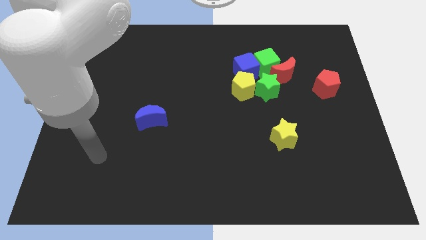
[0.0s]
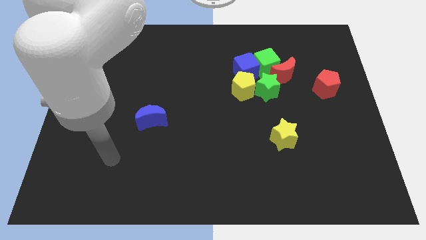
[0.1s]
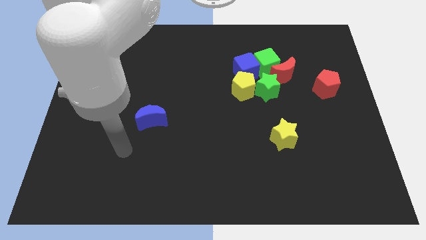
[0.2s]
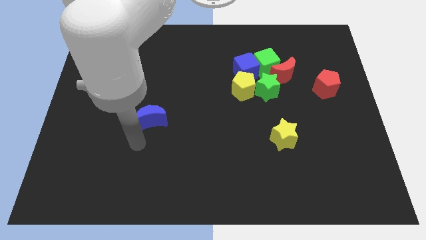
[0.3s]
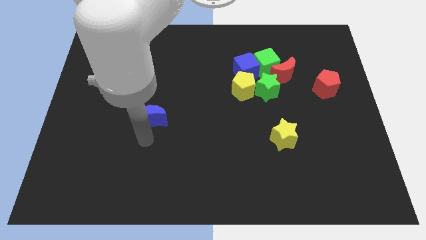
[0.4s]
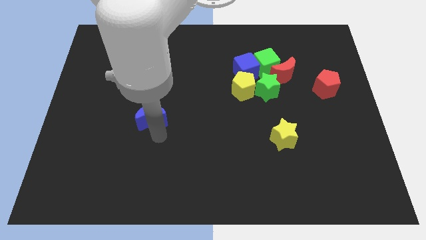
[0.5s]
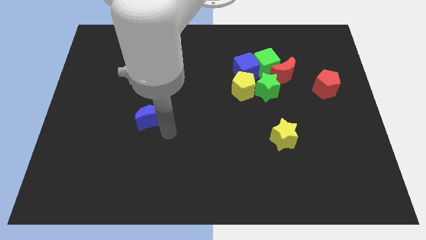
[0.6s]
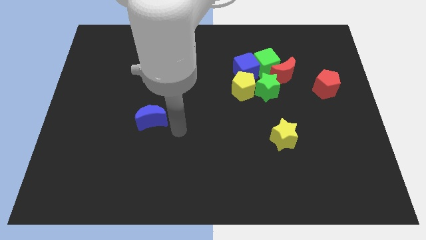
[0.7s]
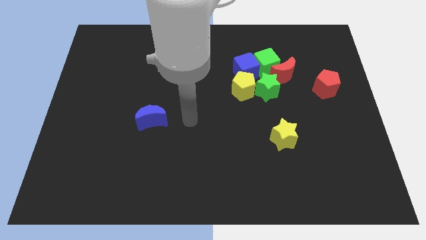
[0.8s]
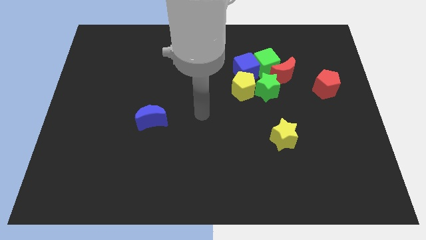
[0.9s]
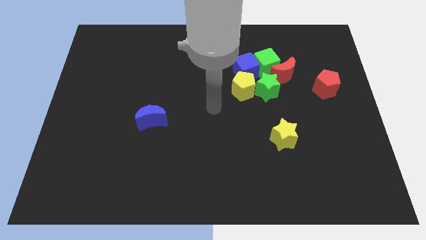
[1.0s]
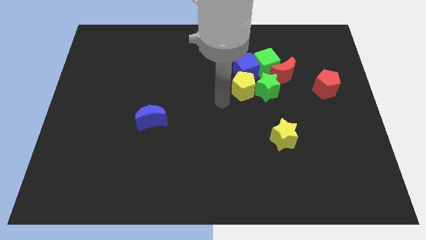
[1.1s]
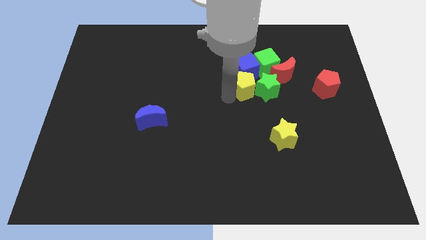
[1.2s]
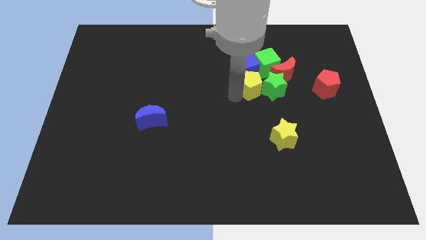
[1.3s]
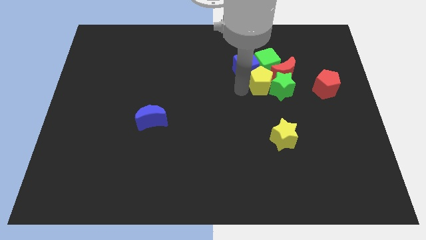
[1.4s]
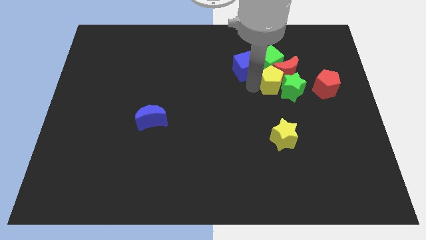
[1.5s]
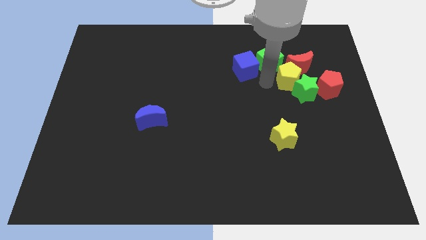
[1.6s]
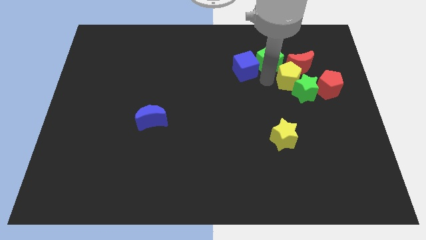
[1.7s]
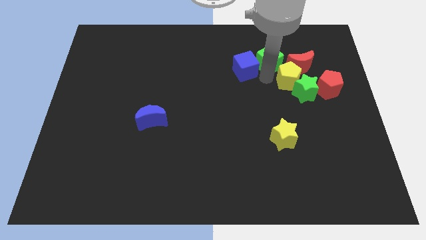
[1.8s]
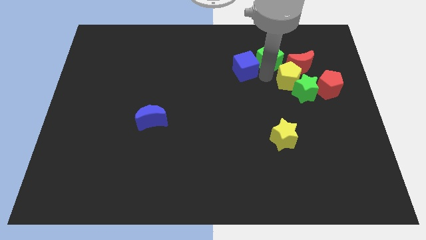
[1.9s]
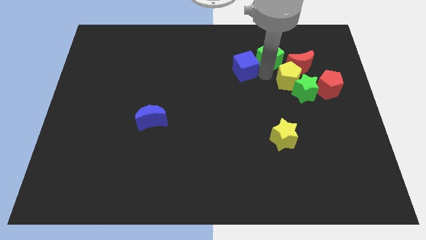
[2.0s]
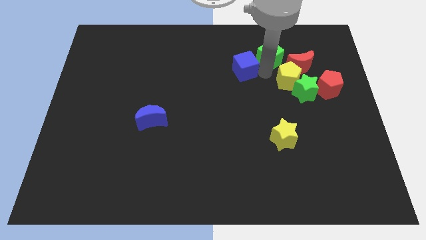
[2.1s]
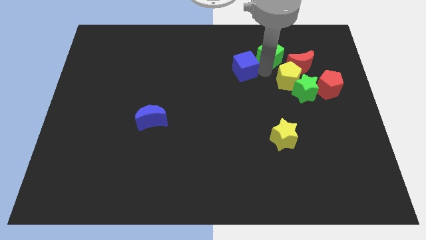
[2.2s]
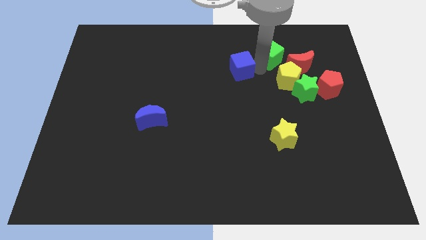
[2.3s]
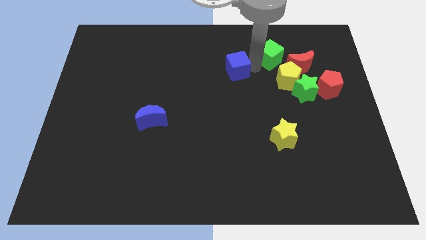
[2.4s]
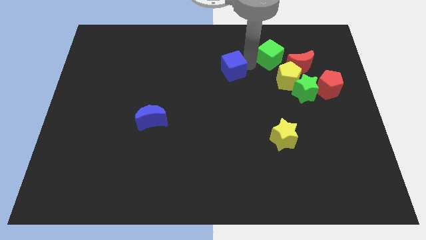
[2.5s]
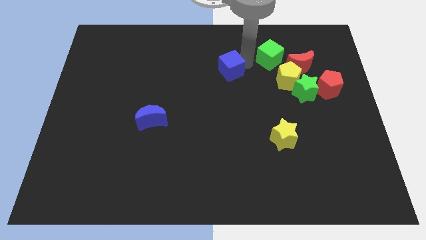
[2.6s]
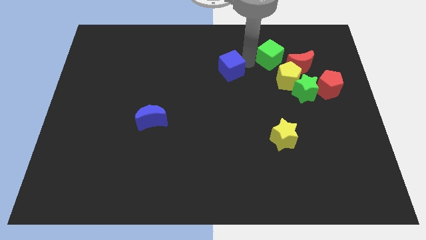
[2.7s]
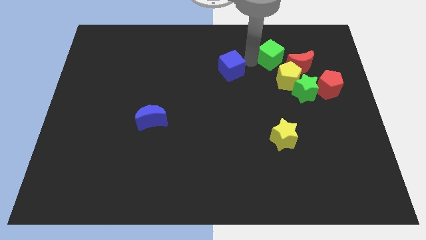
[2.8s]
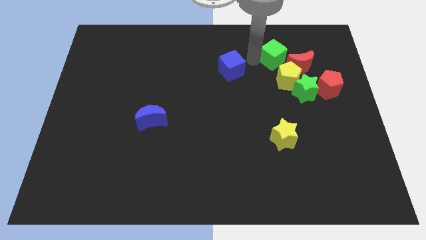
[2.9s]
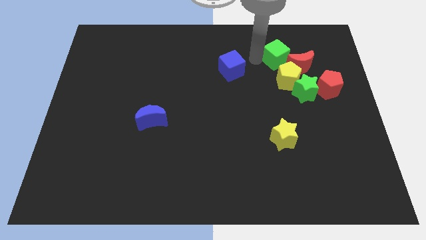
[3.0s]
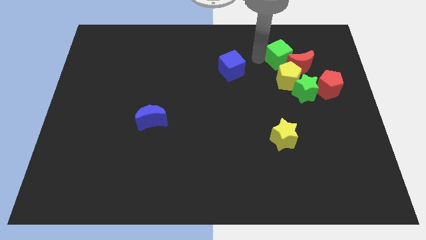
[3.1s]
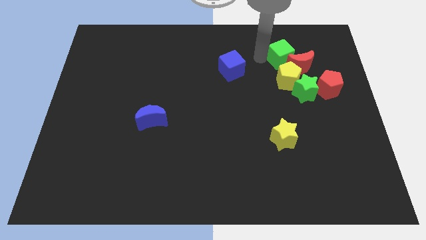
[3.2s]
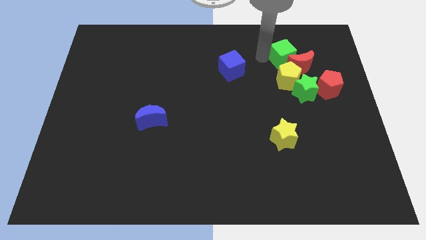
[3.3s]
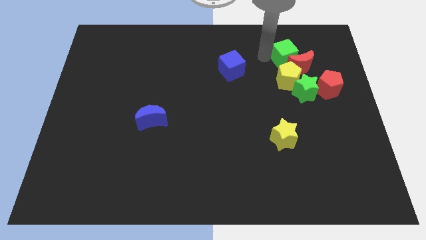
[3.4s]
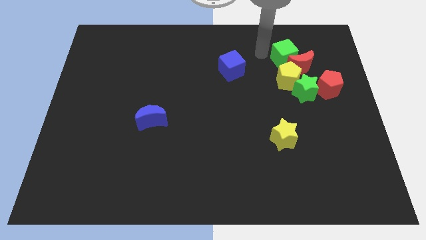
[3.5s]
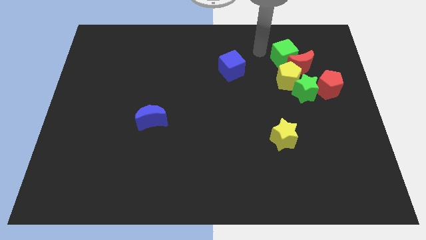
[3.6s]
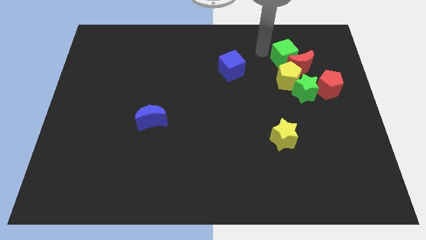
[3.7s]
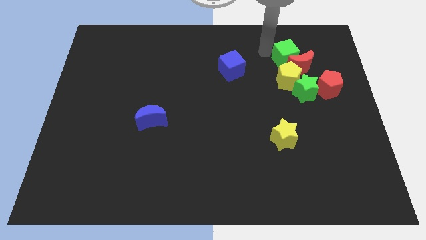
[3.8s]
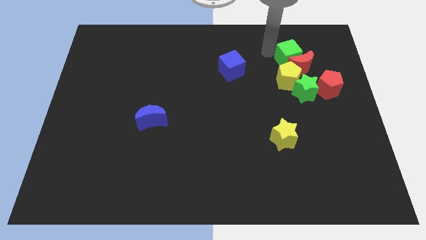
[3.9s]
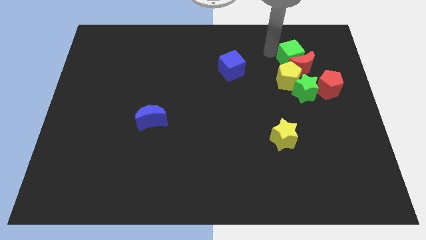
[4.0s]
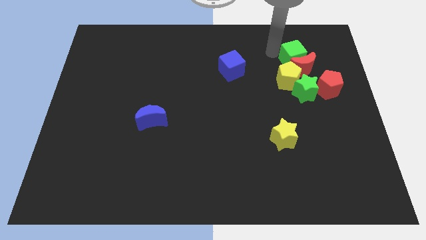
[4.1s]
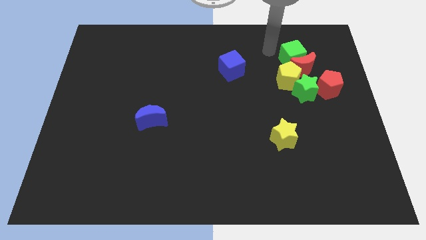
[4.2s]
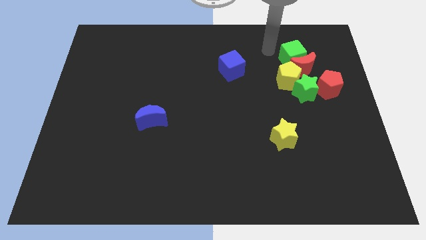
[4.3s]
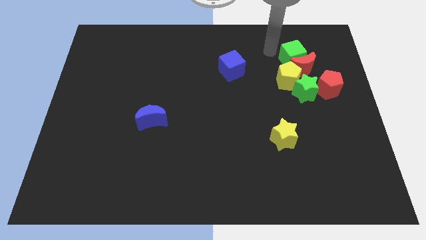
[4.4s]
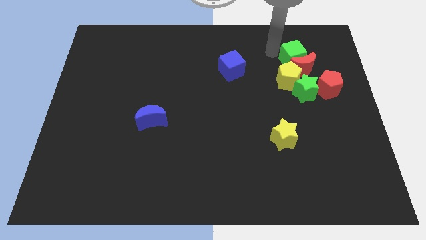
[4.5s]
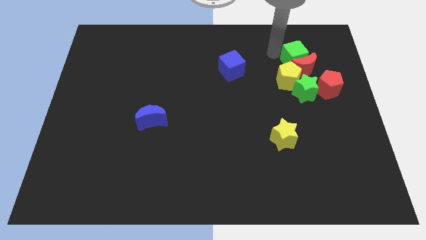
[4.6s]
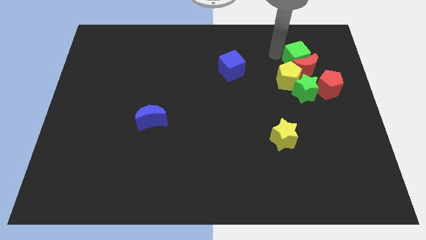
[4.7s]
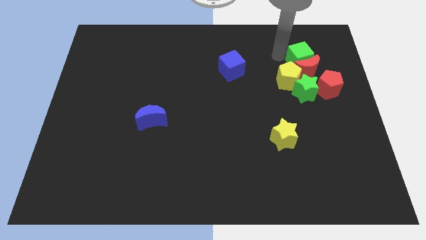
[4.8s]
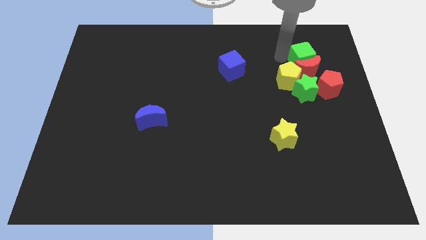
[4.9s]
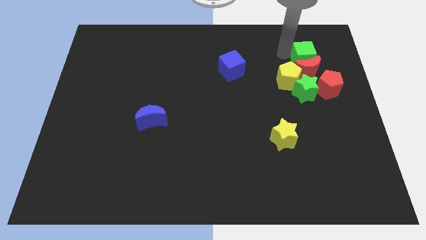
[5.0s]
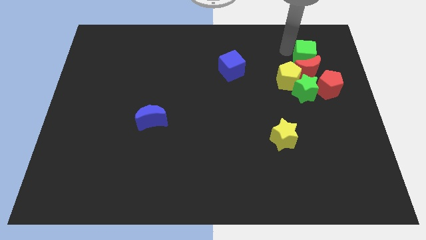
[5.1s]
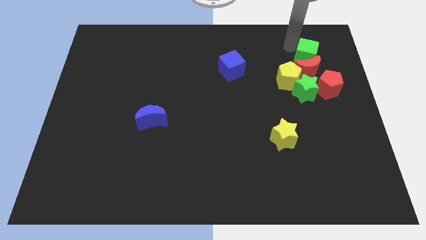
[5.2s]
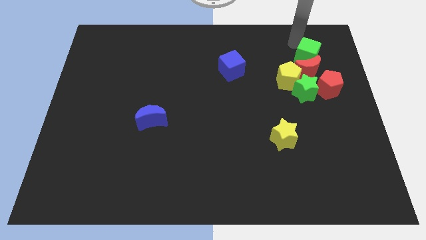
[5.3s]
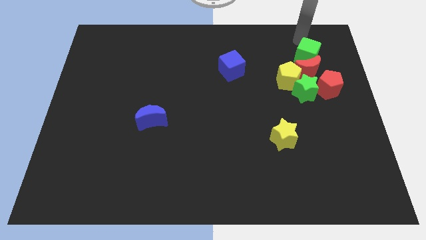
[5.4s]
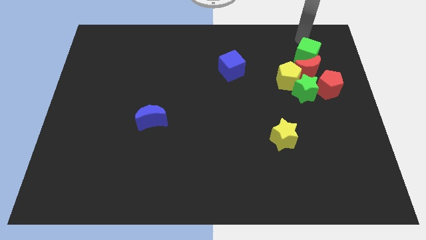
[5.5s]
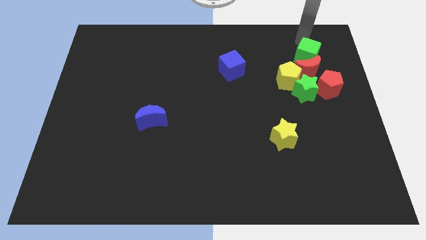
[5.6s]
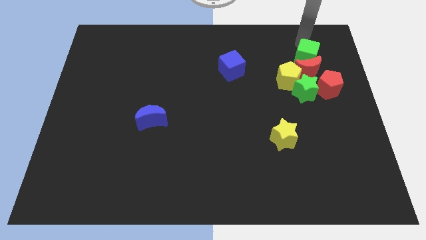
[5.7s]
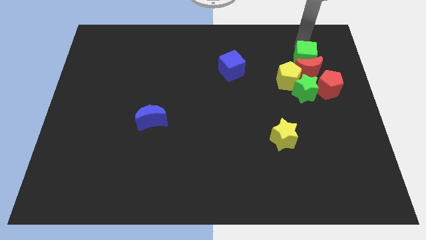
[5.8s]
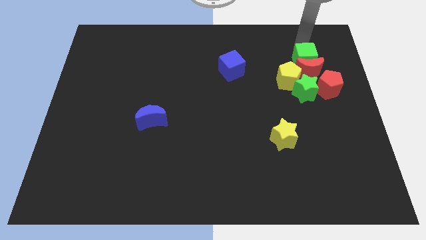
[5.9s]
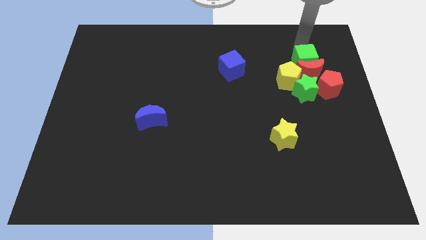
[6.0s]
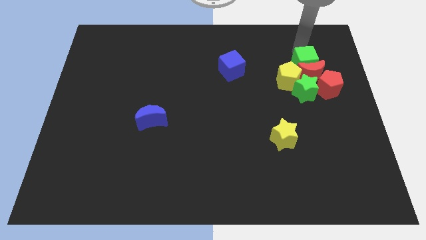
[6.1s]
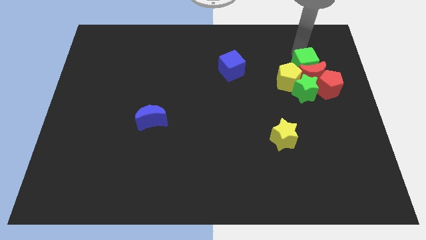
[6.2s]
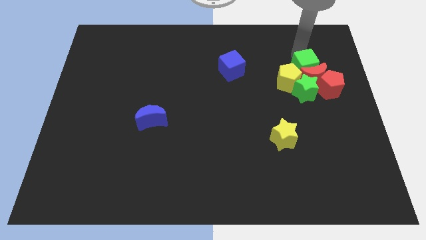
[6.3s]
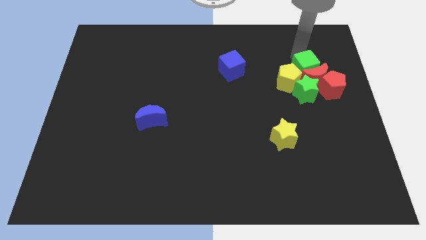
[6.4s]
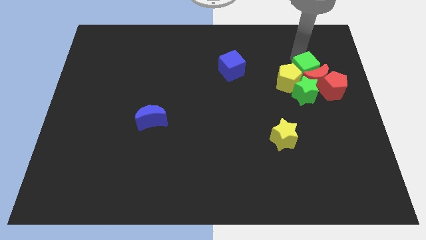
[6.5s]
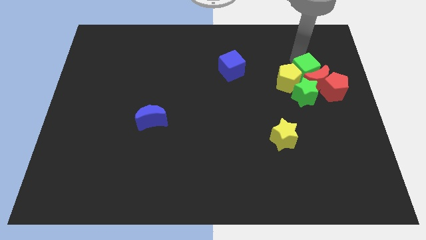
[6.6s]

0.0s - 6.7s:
push the green cube diagonally downwards and to the right a bit

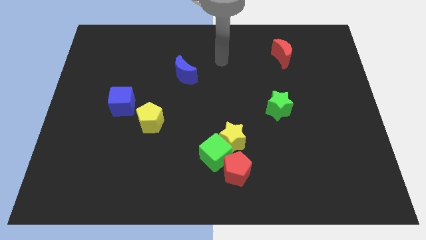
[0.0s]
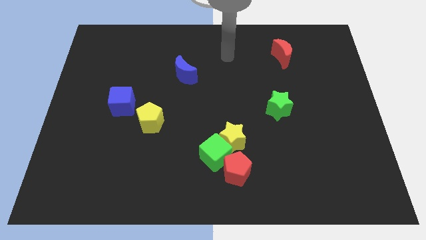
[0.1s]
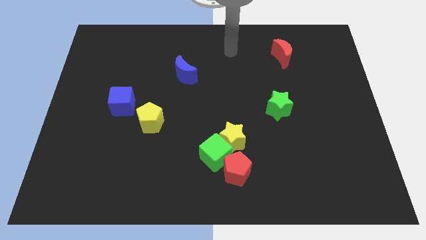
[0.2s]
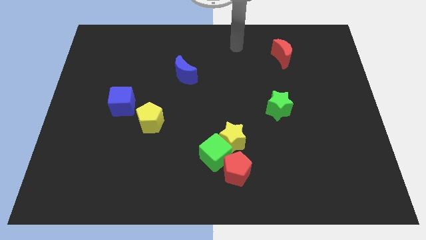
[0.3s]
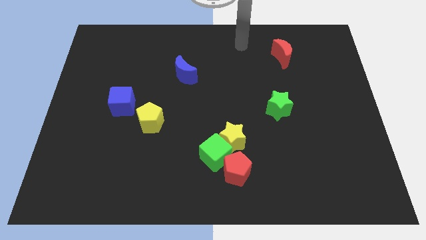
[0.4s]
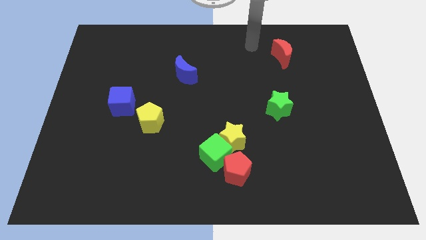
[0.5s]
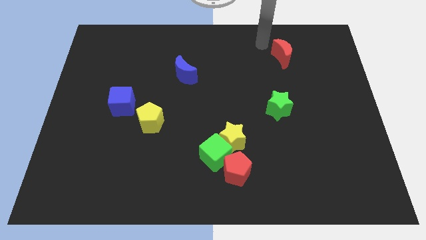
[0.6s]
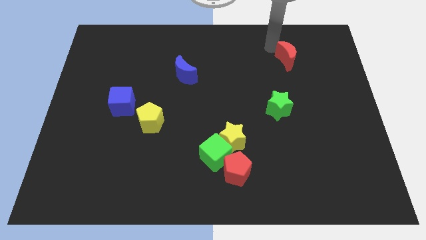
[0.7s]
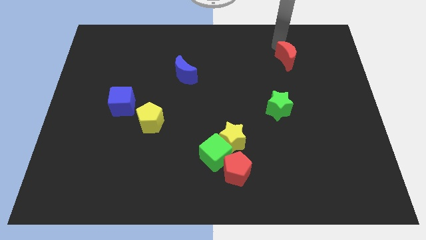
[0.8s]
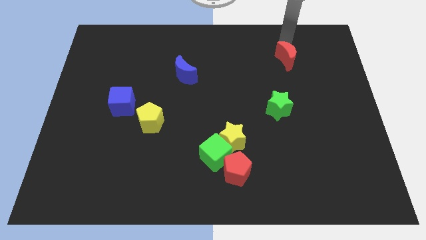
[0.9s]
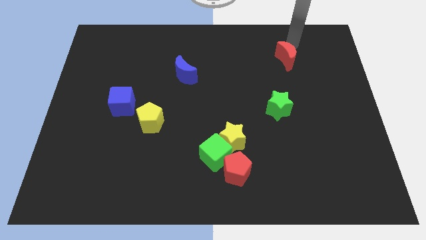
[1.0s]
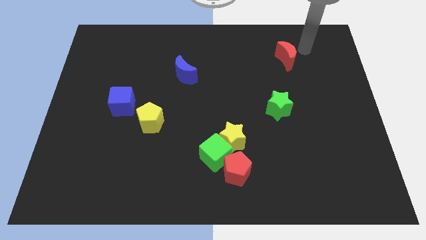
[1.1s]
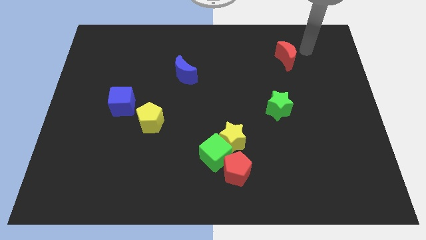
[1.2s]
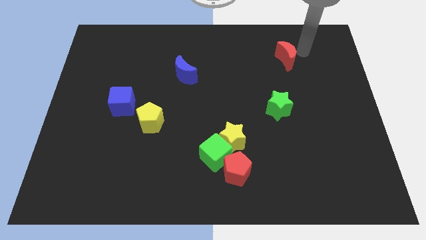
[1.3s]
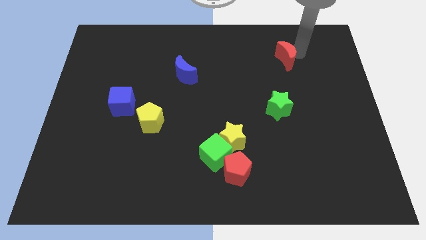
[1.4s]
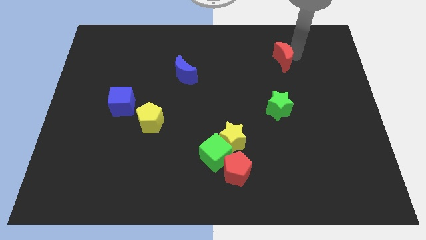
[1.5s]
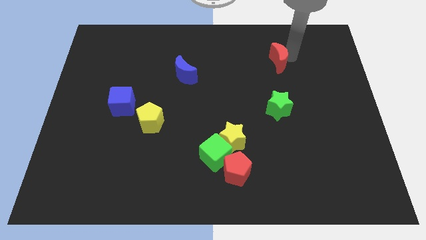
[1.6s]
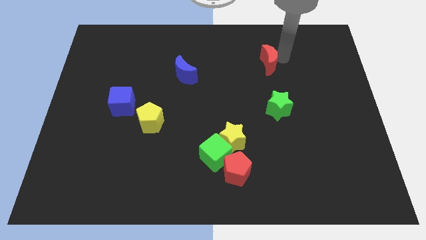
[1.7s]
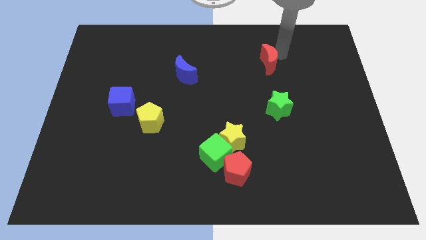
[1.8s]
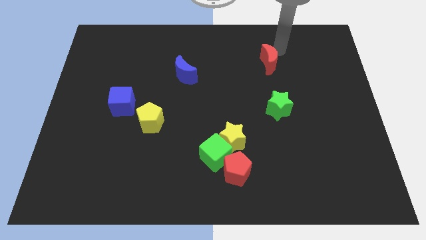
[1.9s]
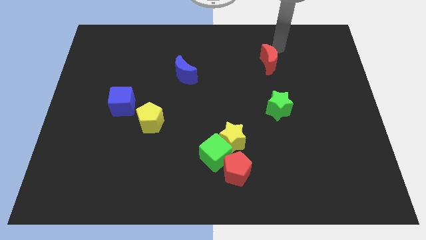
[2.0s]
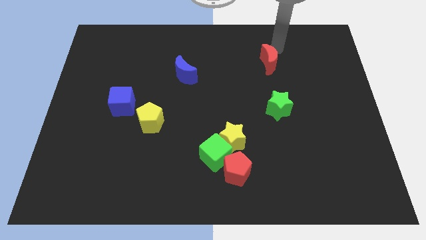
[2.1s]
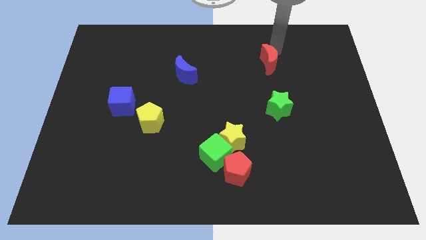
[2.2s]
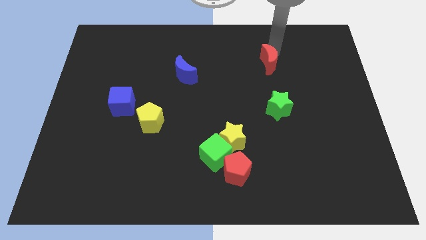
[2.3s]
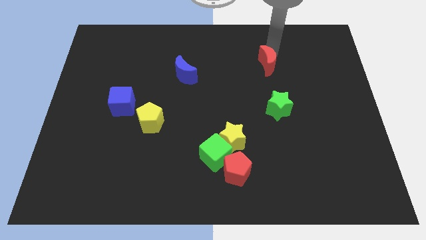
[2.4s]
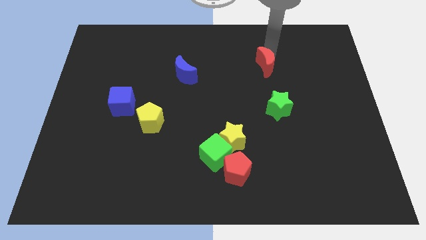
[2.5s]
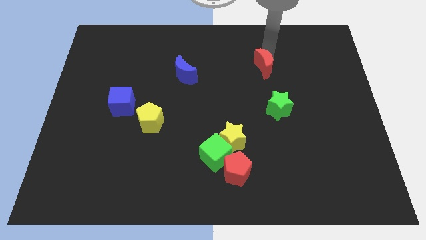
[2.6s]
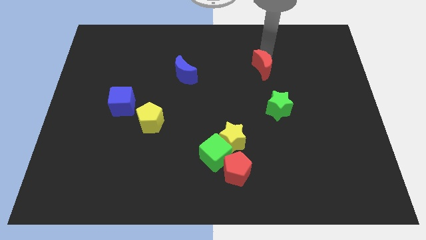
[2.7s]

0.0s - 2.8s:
slide the red moon diagonally down and left a little
